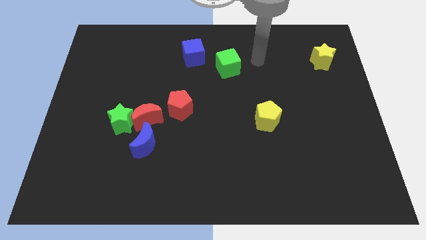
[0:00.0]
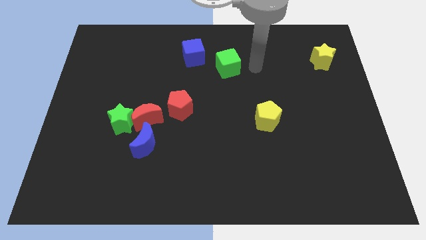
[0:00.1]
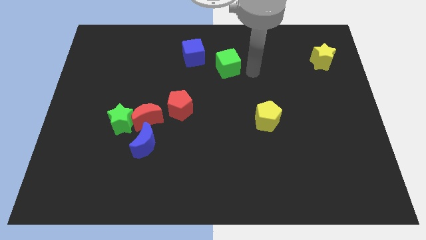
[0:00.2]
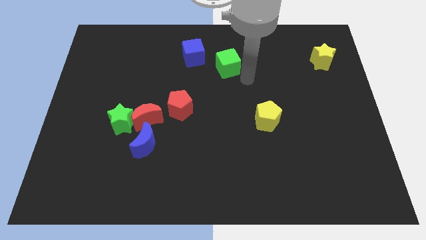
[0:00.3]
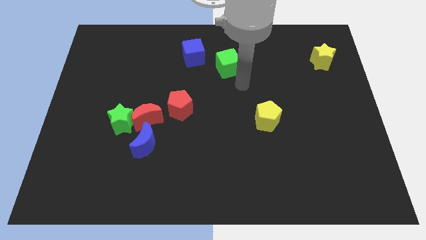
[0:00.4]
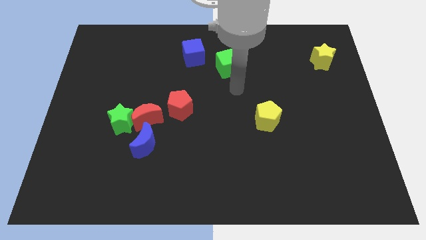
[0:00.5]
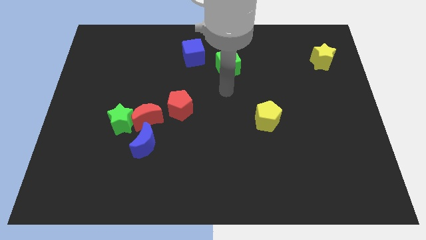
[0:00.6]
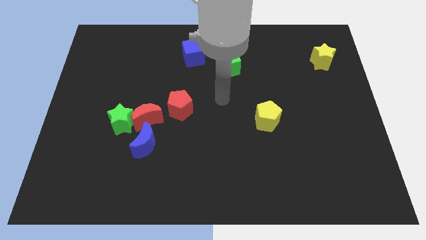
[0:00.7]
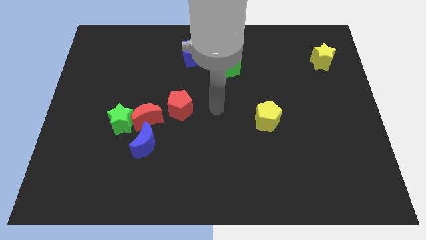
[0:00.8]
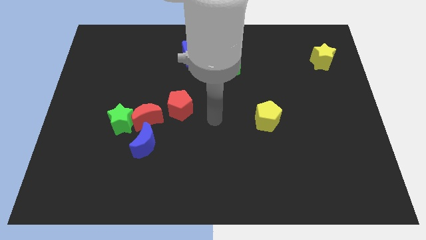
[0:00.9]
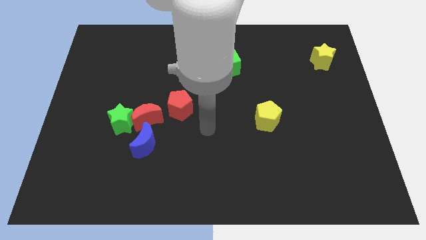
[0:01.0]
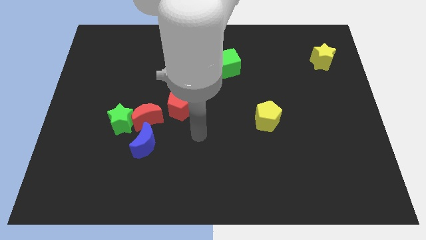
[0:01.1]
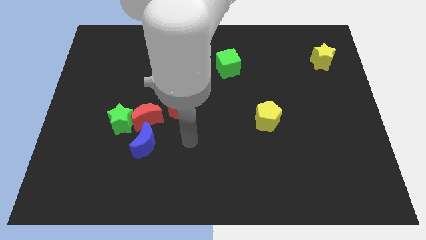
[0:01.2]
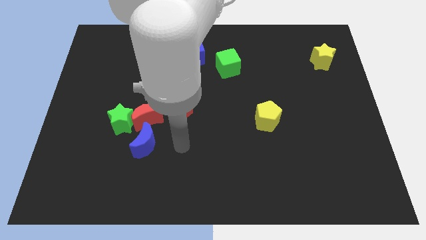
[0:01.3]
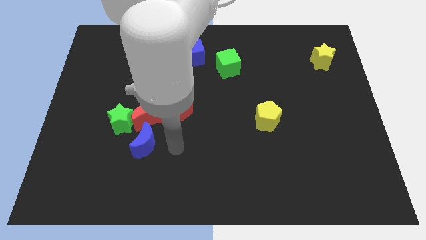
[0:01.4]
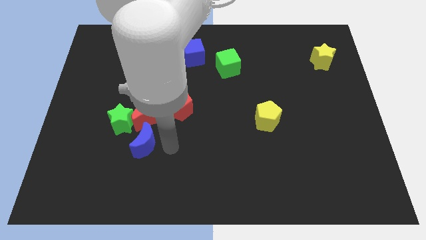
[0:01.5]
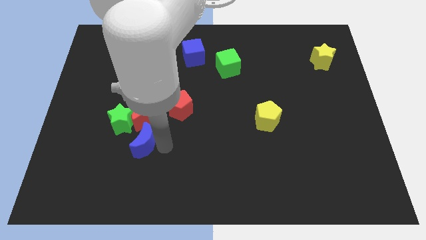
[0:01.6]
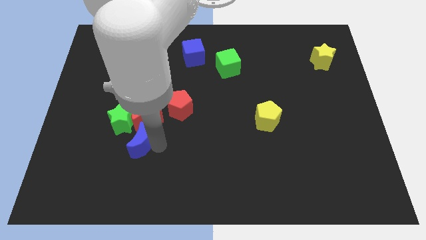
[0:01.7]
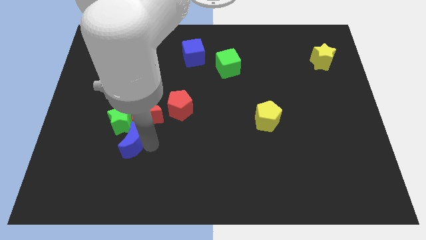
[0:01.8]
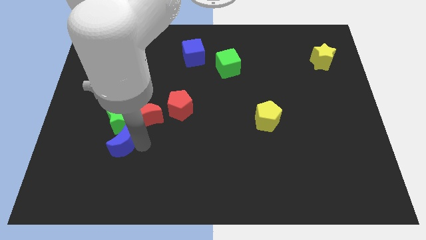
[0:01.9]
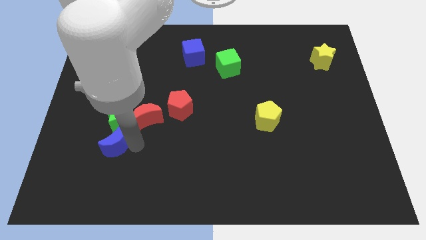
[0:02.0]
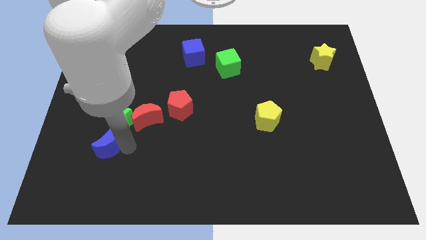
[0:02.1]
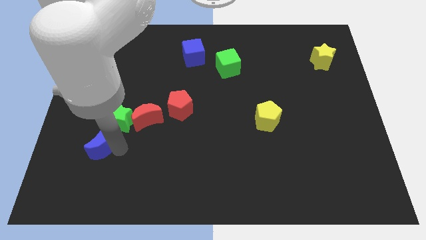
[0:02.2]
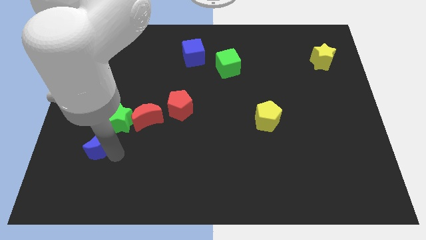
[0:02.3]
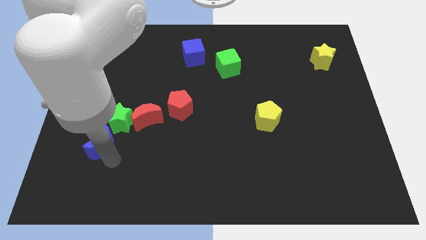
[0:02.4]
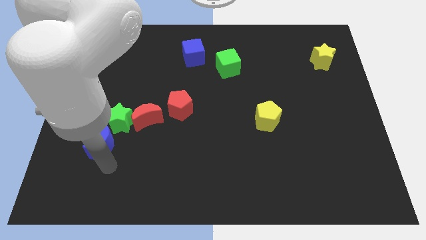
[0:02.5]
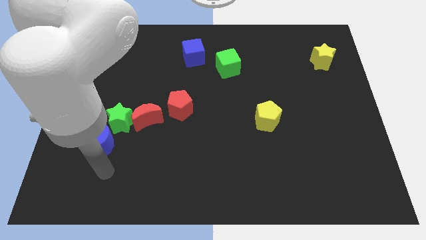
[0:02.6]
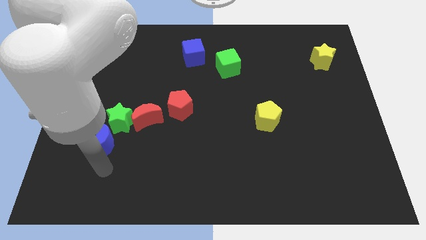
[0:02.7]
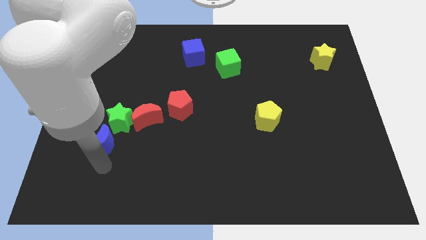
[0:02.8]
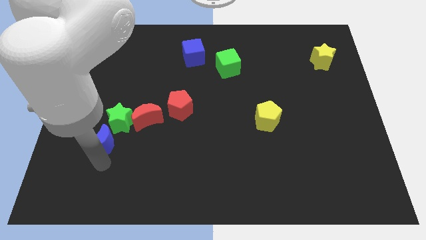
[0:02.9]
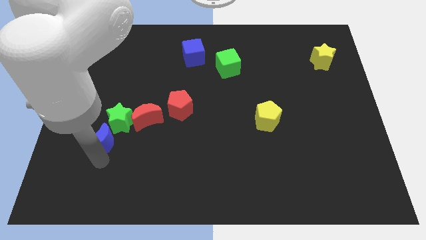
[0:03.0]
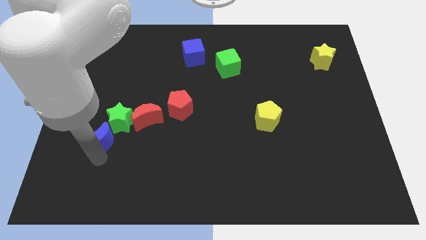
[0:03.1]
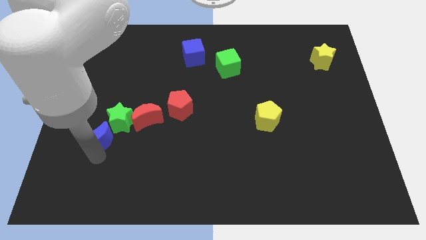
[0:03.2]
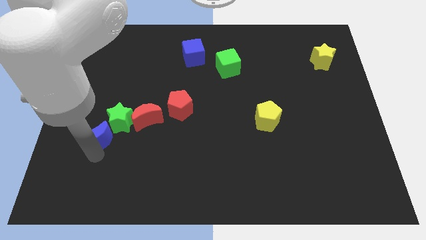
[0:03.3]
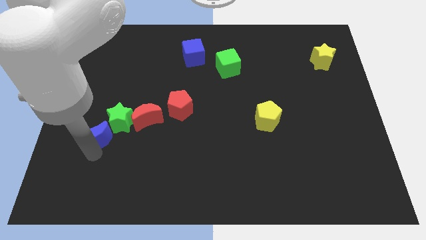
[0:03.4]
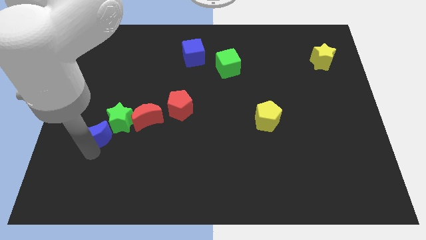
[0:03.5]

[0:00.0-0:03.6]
slide the blue moon a little diagonally upwards and to the left

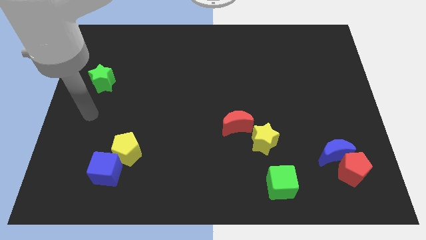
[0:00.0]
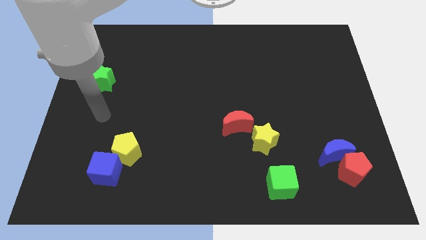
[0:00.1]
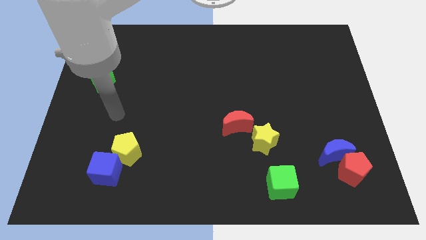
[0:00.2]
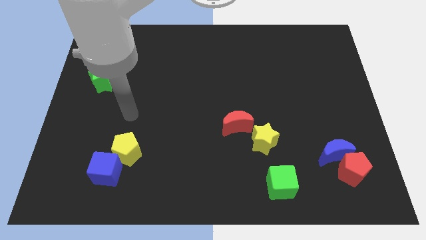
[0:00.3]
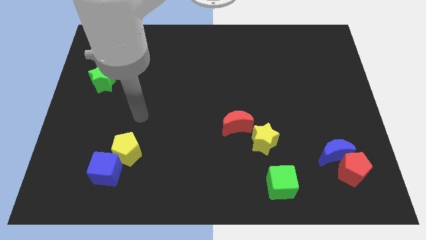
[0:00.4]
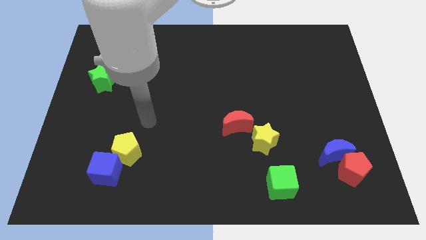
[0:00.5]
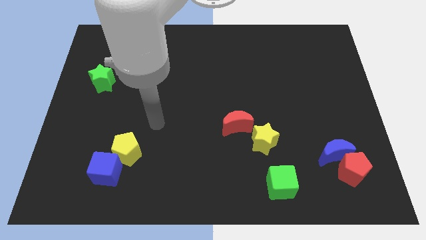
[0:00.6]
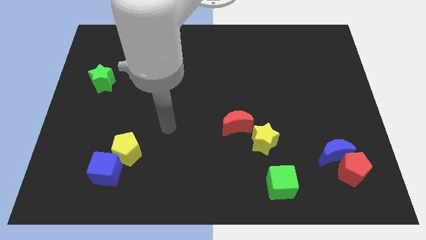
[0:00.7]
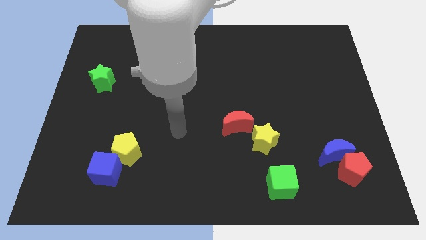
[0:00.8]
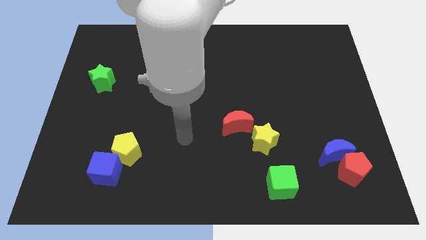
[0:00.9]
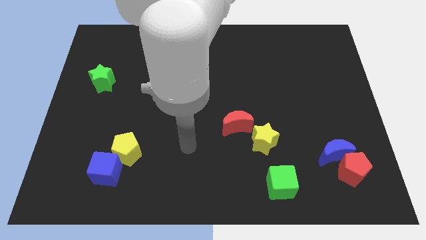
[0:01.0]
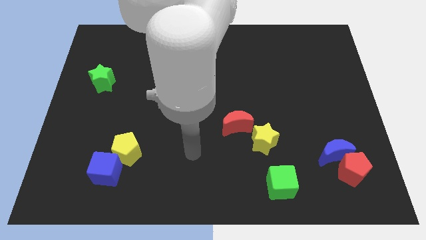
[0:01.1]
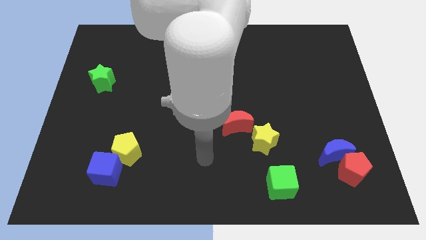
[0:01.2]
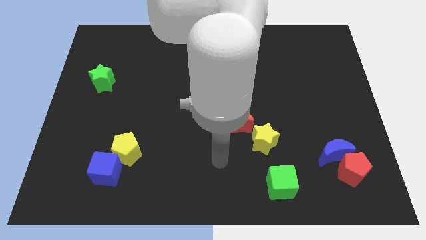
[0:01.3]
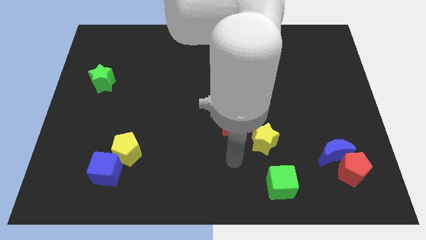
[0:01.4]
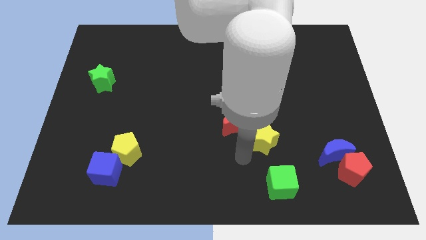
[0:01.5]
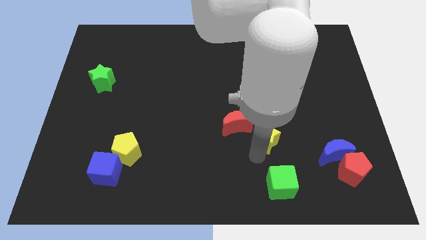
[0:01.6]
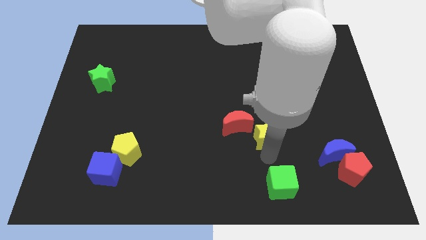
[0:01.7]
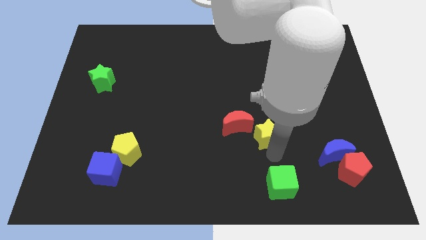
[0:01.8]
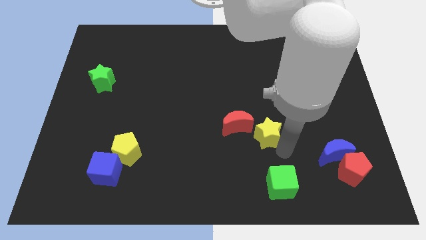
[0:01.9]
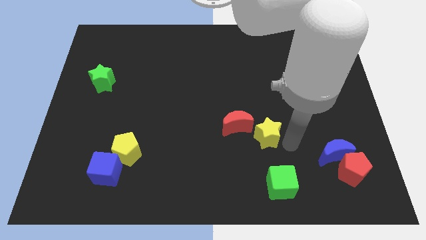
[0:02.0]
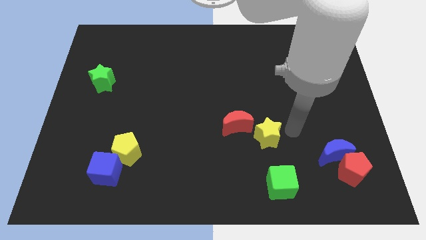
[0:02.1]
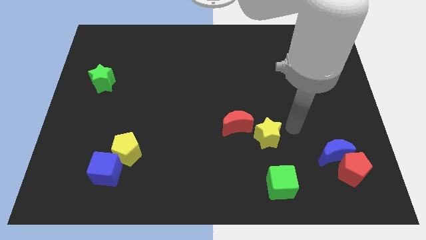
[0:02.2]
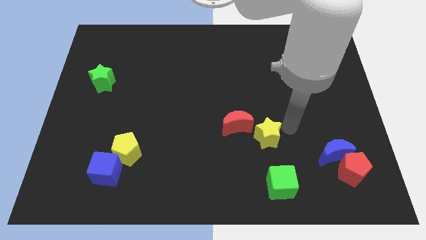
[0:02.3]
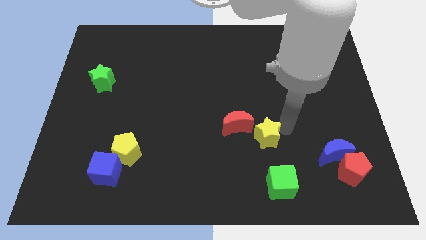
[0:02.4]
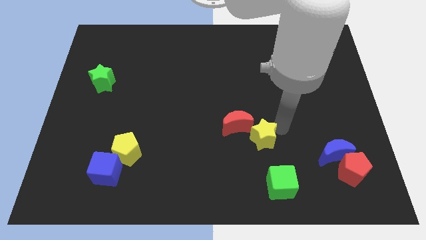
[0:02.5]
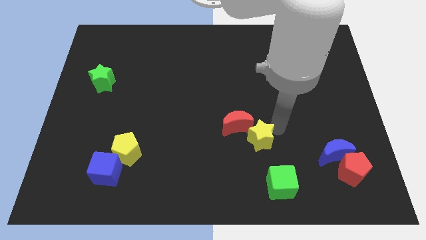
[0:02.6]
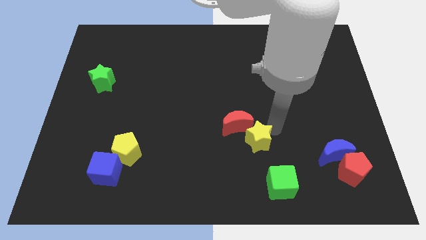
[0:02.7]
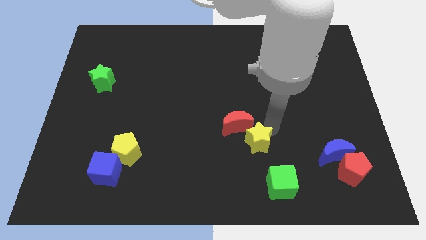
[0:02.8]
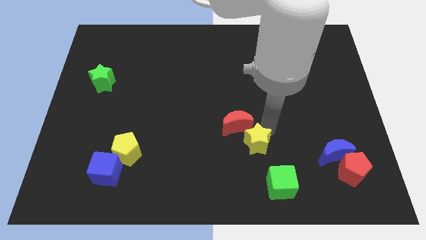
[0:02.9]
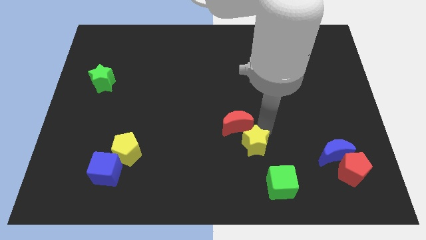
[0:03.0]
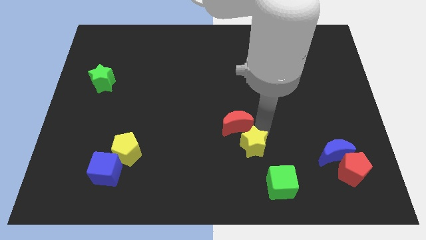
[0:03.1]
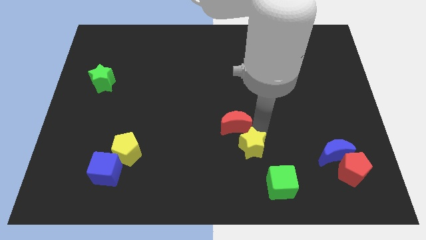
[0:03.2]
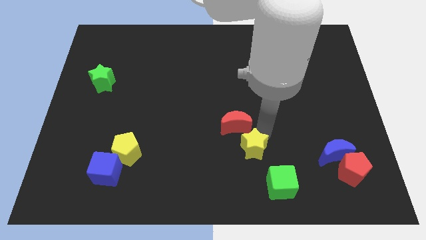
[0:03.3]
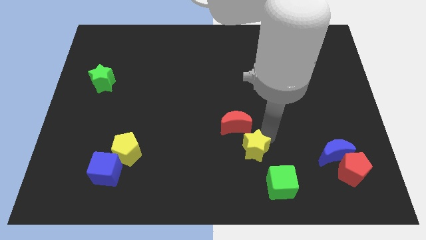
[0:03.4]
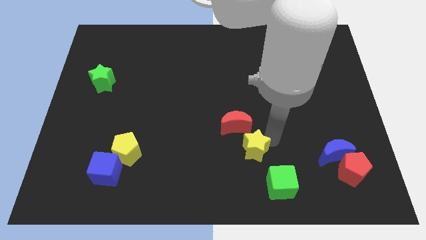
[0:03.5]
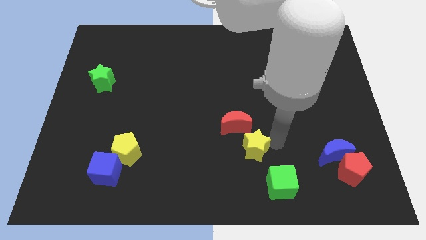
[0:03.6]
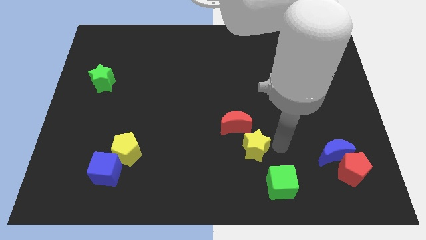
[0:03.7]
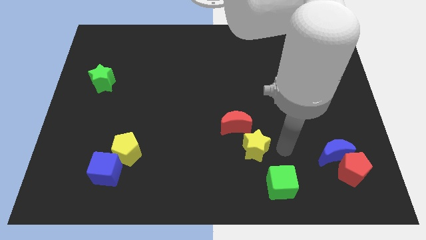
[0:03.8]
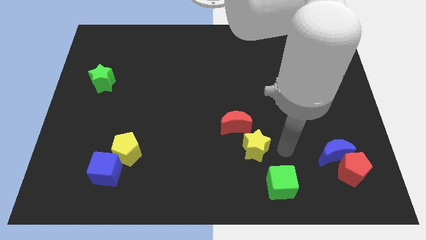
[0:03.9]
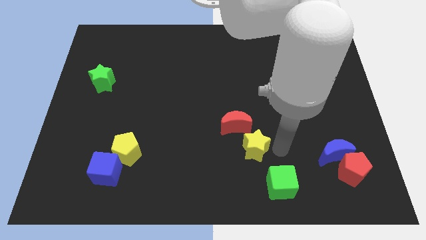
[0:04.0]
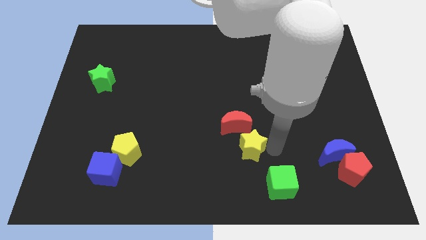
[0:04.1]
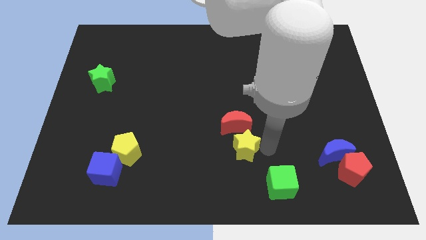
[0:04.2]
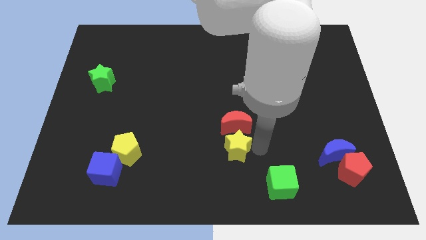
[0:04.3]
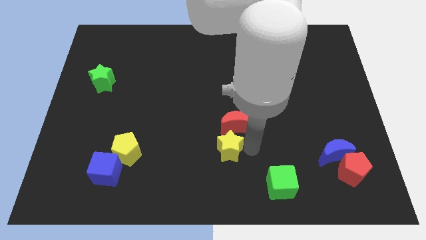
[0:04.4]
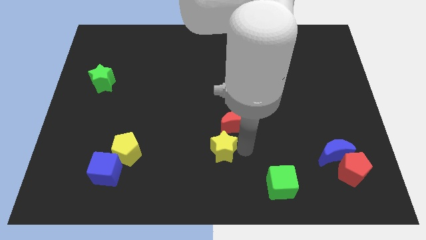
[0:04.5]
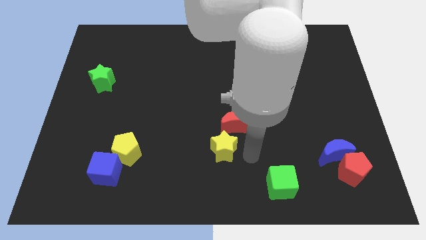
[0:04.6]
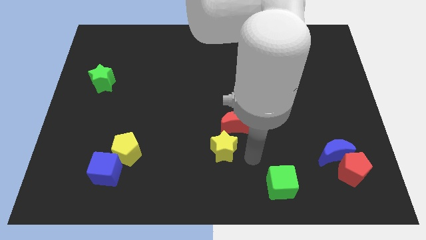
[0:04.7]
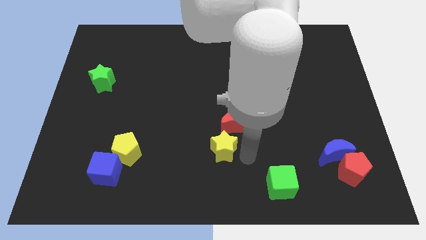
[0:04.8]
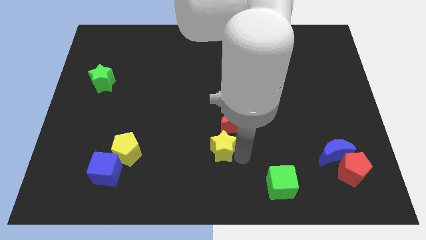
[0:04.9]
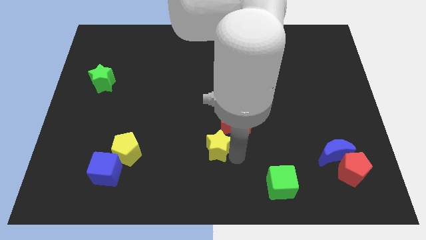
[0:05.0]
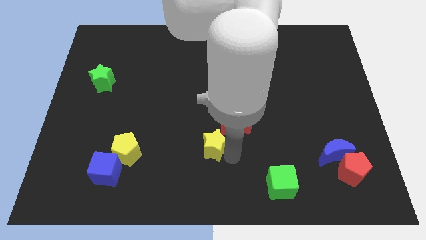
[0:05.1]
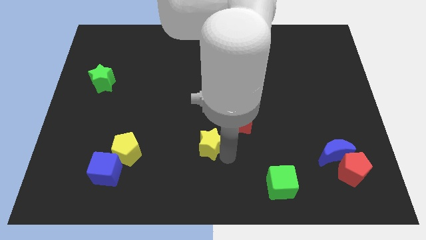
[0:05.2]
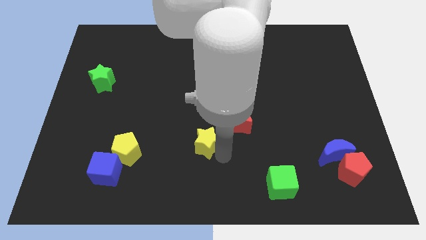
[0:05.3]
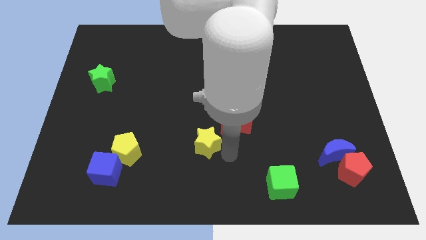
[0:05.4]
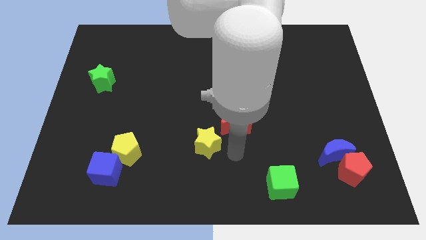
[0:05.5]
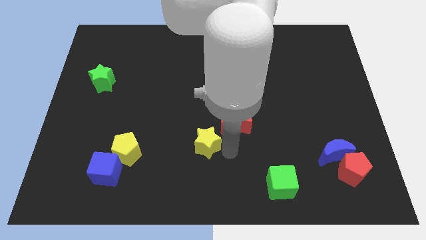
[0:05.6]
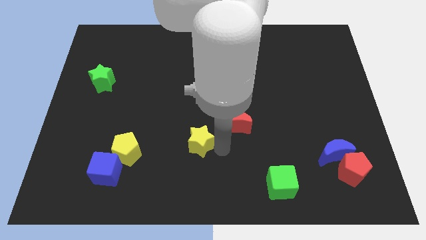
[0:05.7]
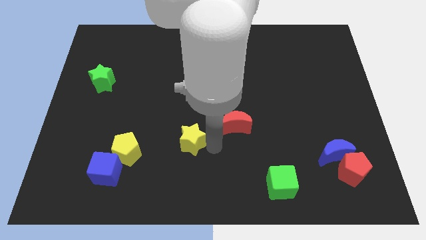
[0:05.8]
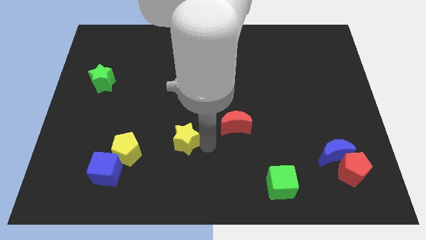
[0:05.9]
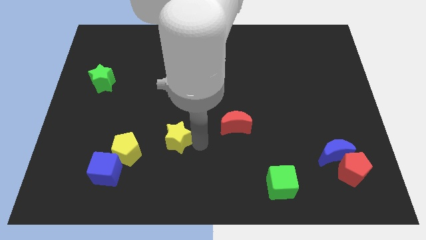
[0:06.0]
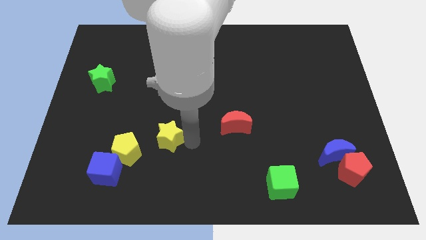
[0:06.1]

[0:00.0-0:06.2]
move the yellow star left
